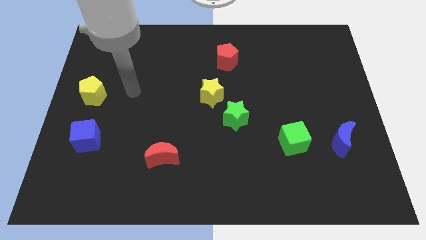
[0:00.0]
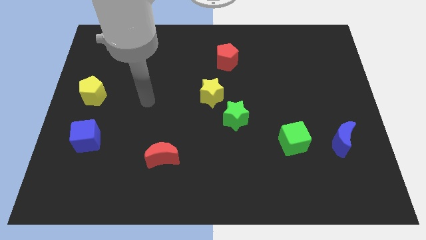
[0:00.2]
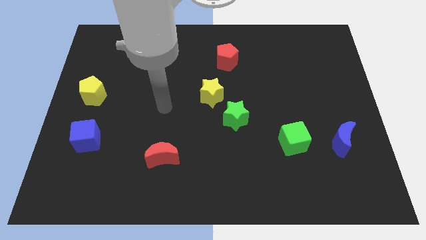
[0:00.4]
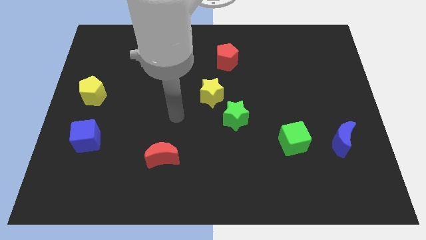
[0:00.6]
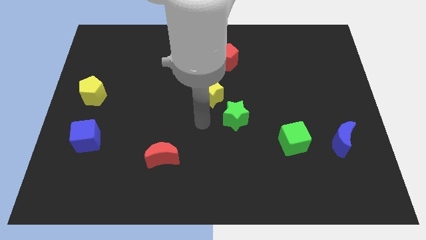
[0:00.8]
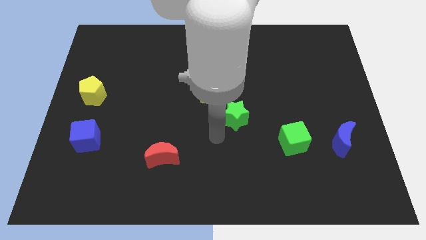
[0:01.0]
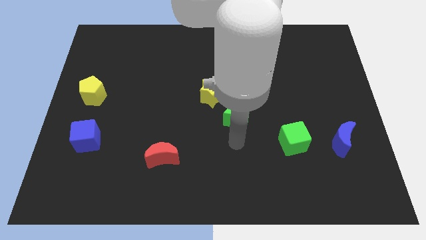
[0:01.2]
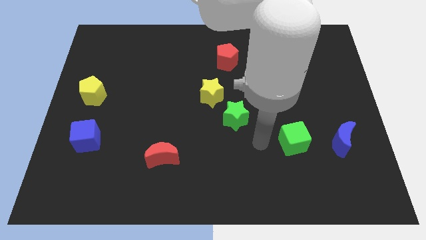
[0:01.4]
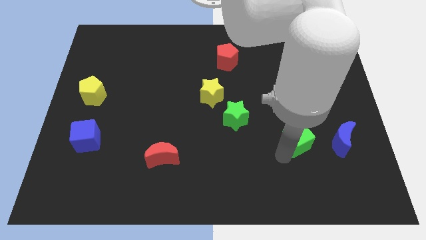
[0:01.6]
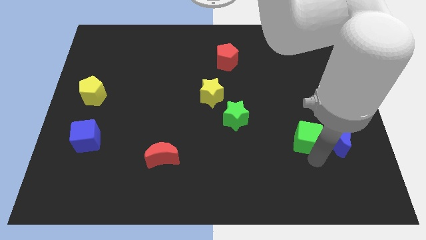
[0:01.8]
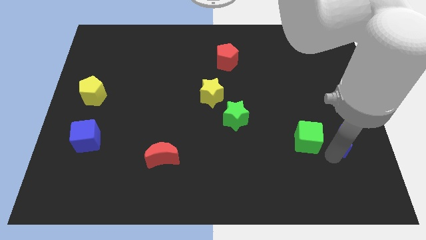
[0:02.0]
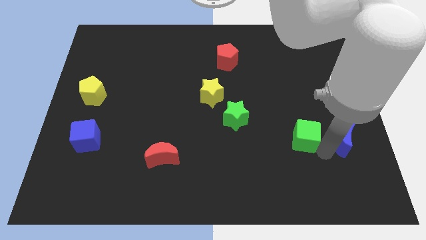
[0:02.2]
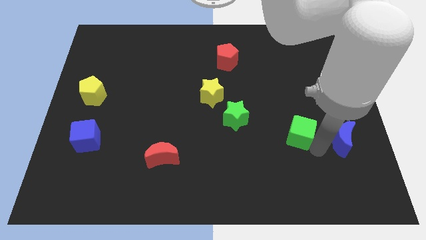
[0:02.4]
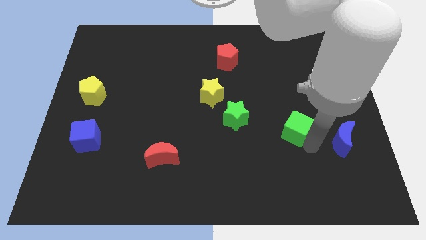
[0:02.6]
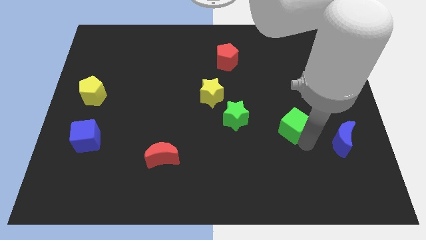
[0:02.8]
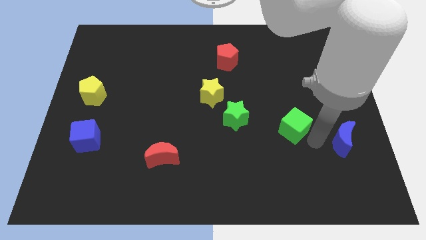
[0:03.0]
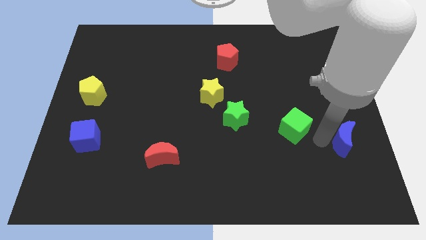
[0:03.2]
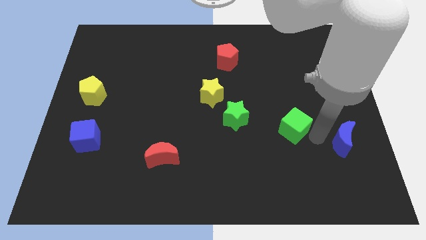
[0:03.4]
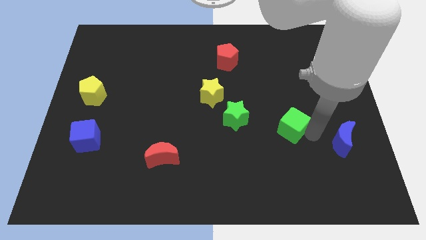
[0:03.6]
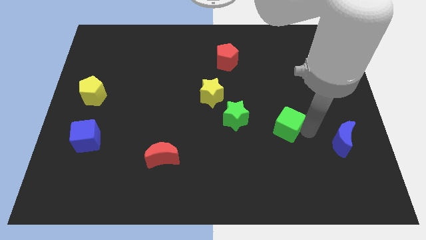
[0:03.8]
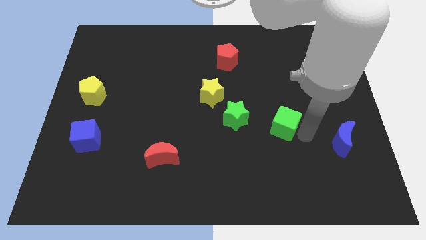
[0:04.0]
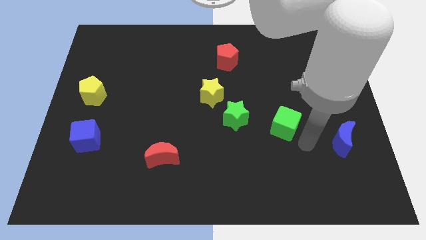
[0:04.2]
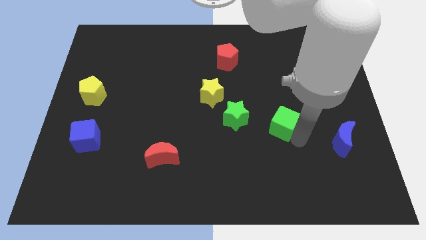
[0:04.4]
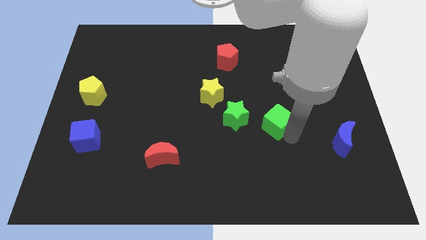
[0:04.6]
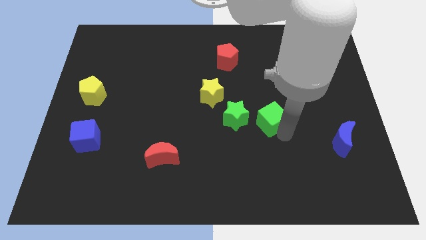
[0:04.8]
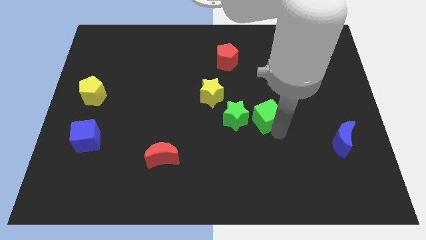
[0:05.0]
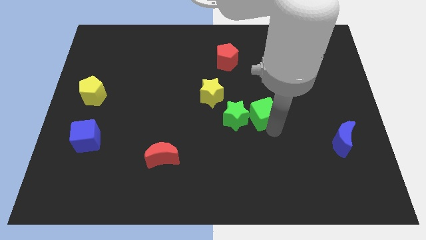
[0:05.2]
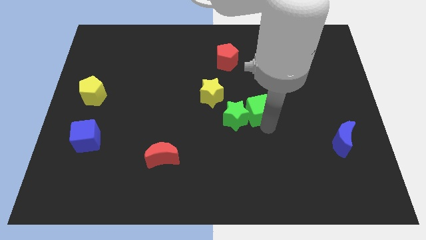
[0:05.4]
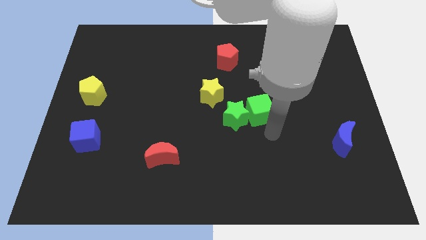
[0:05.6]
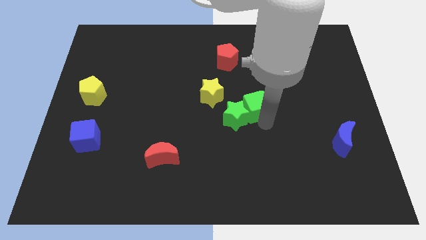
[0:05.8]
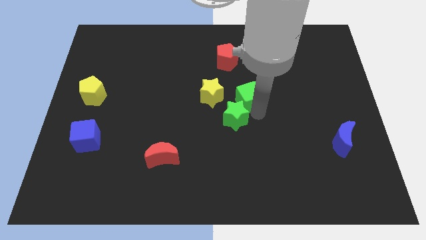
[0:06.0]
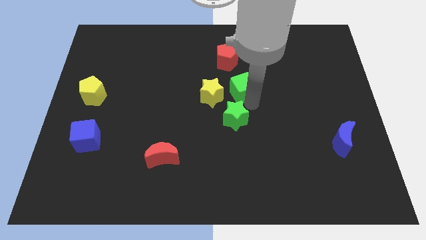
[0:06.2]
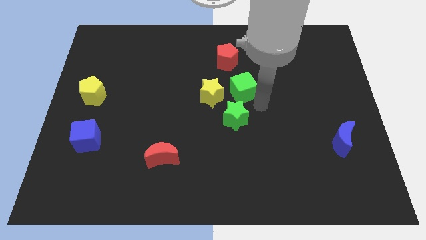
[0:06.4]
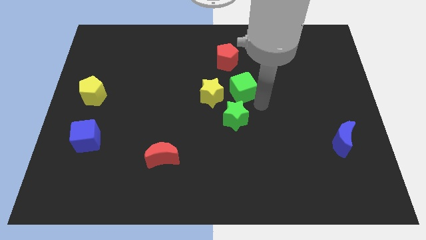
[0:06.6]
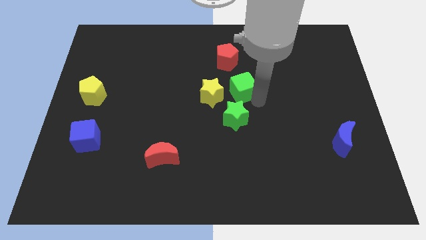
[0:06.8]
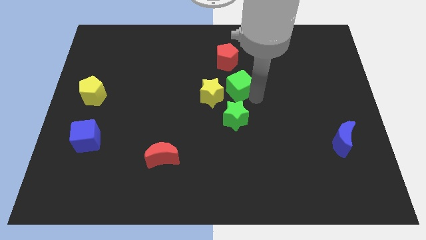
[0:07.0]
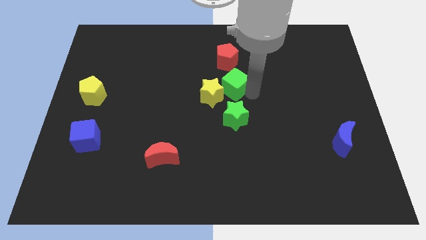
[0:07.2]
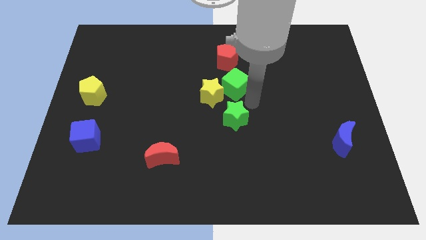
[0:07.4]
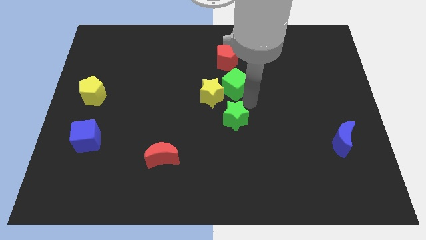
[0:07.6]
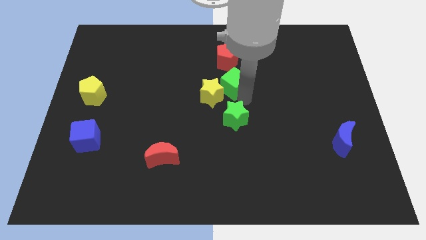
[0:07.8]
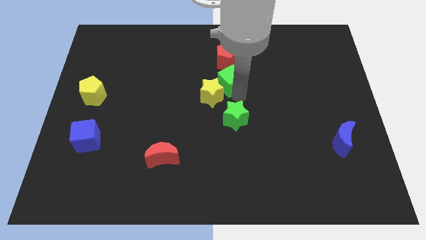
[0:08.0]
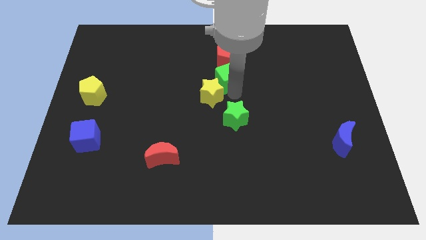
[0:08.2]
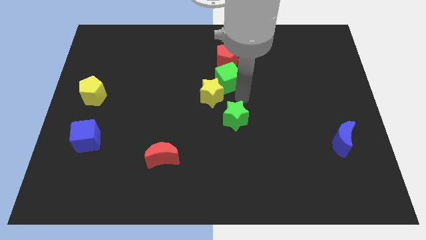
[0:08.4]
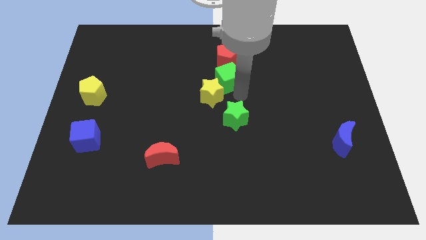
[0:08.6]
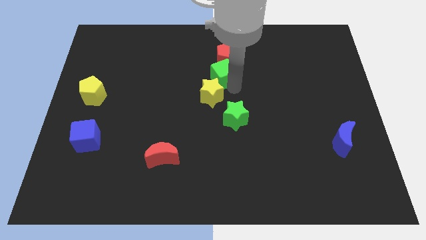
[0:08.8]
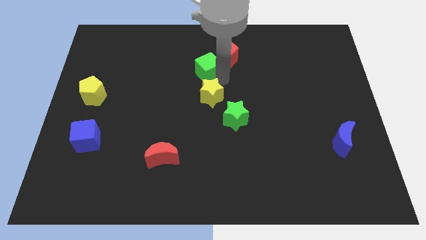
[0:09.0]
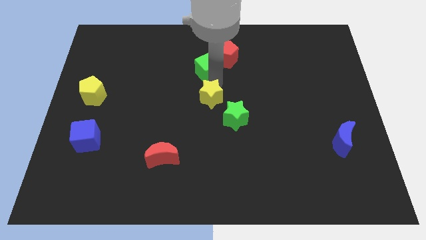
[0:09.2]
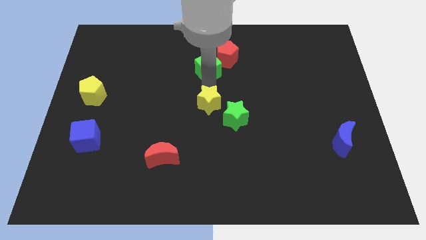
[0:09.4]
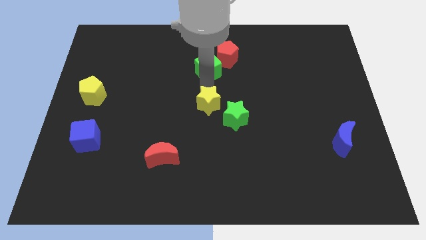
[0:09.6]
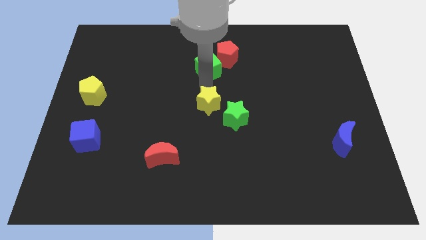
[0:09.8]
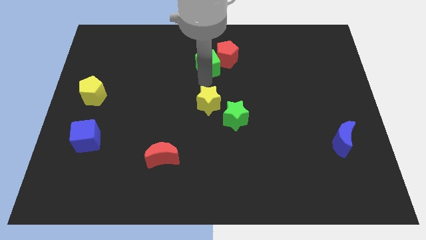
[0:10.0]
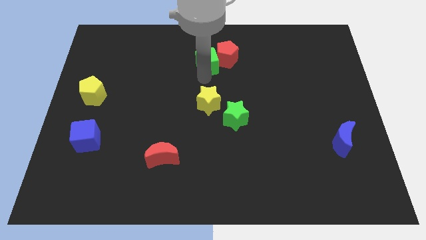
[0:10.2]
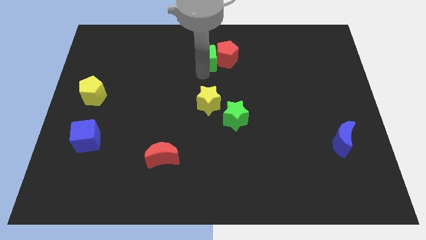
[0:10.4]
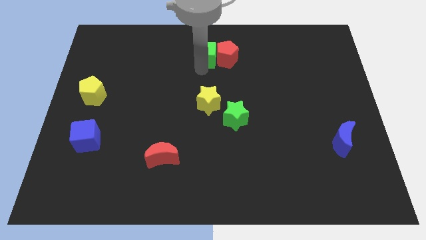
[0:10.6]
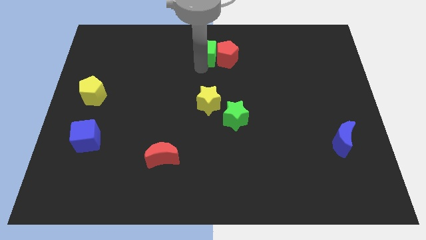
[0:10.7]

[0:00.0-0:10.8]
move the green cube to the top side

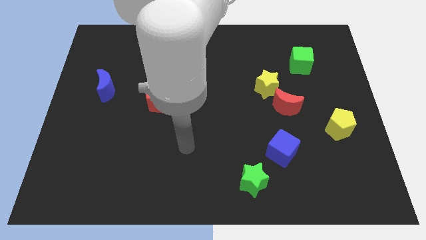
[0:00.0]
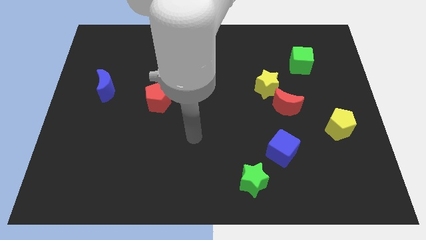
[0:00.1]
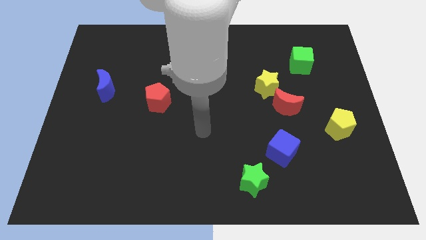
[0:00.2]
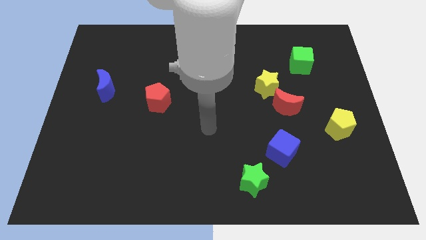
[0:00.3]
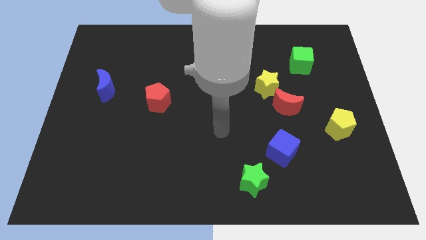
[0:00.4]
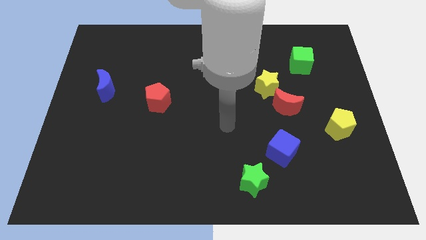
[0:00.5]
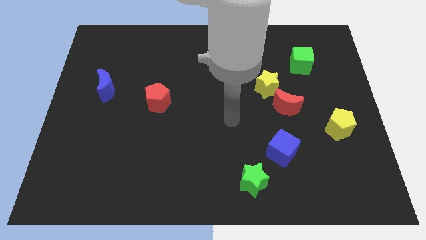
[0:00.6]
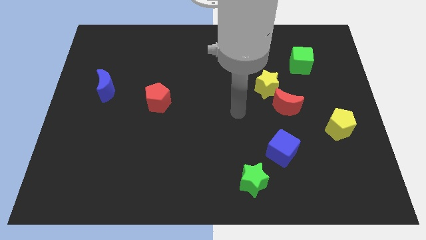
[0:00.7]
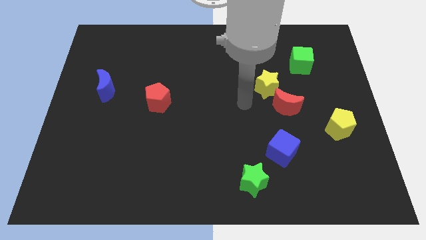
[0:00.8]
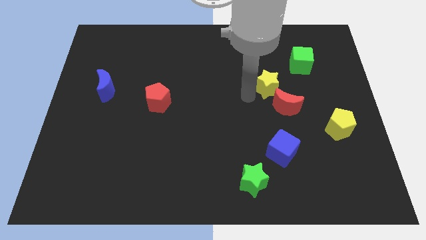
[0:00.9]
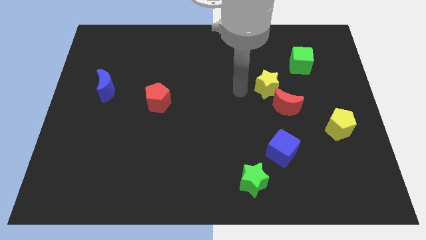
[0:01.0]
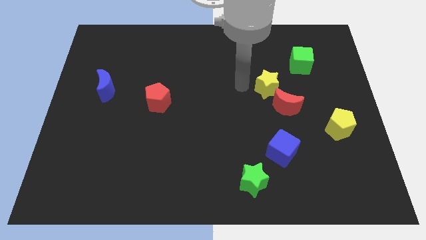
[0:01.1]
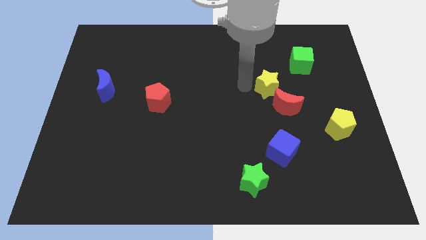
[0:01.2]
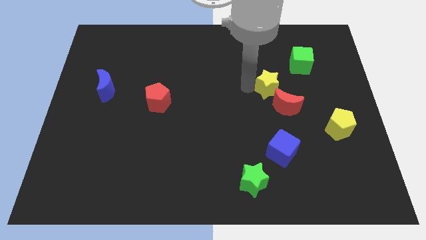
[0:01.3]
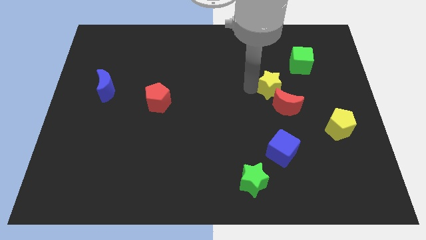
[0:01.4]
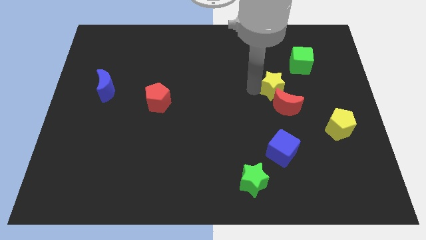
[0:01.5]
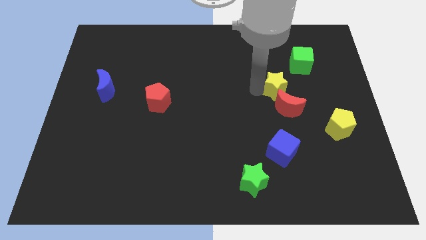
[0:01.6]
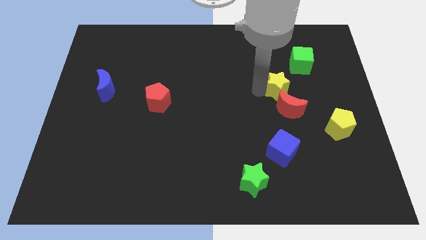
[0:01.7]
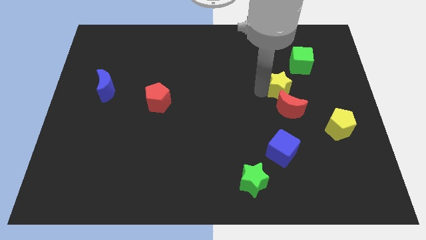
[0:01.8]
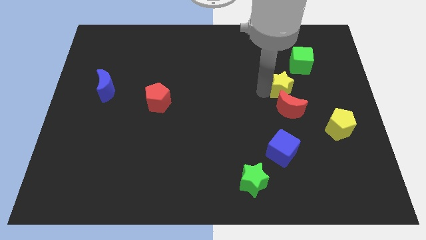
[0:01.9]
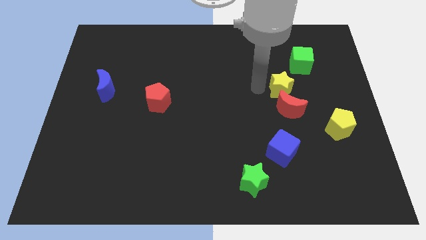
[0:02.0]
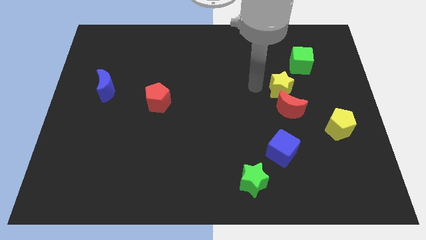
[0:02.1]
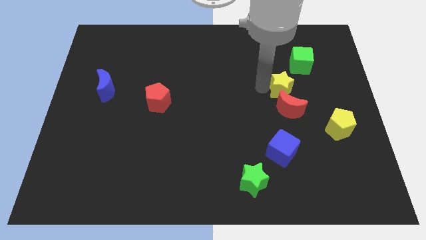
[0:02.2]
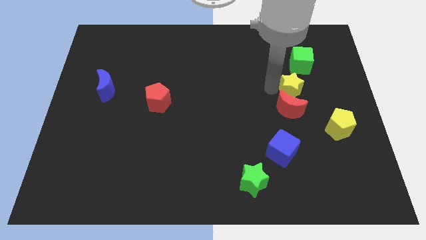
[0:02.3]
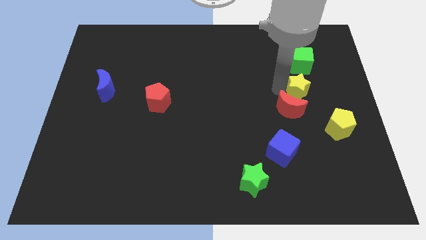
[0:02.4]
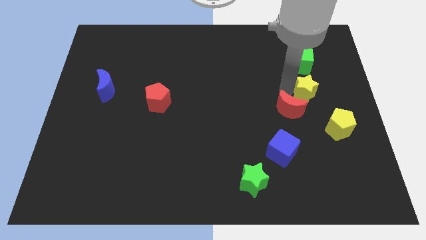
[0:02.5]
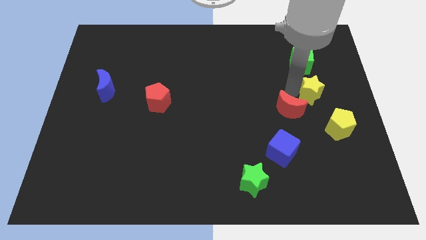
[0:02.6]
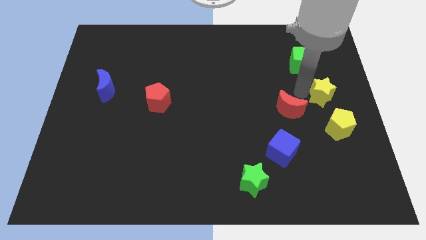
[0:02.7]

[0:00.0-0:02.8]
slide the yellow star to the right side of the board
